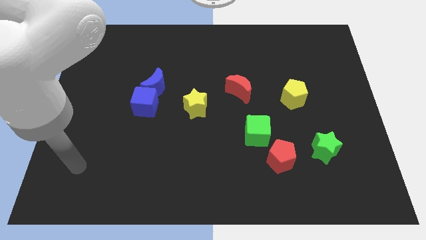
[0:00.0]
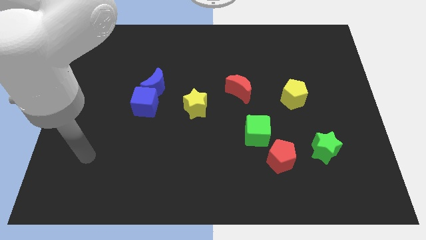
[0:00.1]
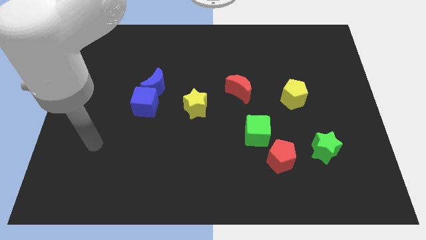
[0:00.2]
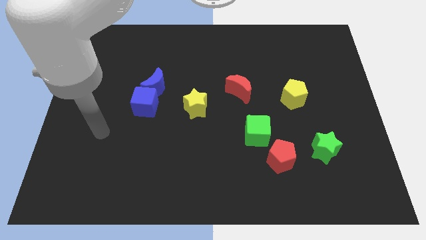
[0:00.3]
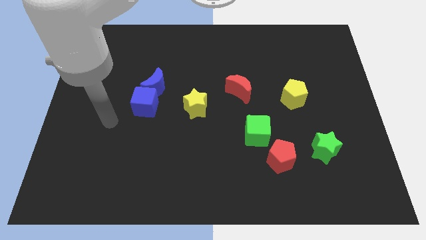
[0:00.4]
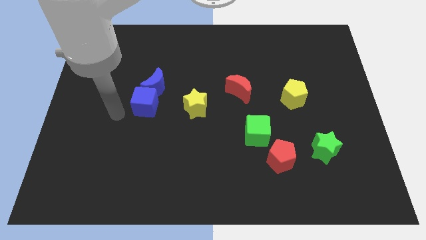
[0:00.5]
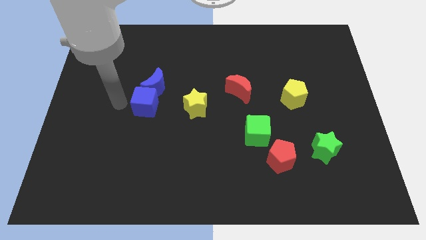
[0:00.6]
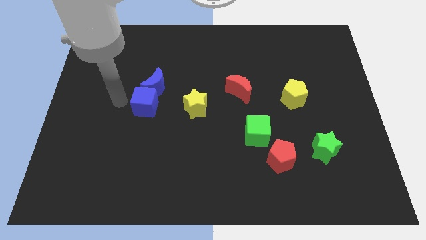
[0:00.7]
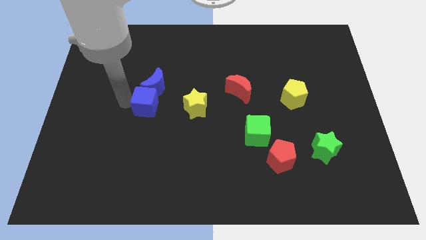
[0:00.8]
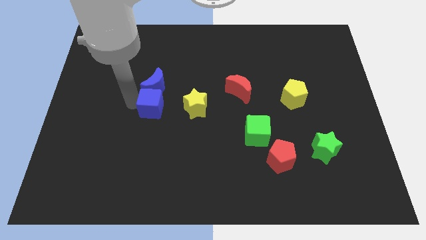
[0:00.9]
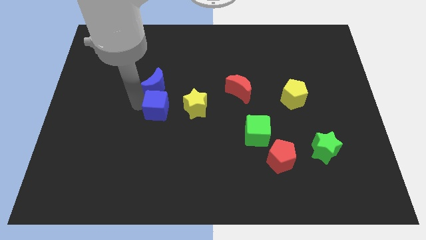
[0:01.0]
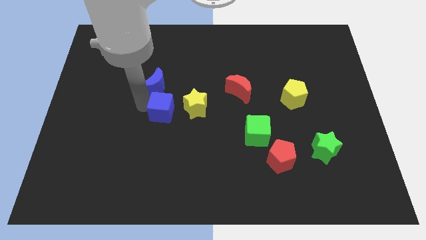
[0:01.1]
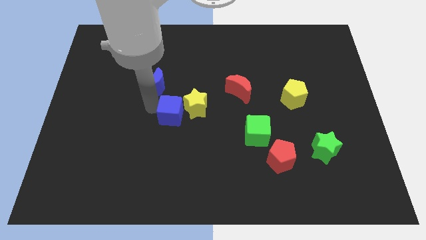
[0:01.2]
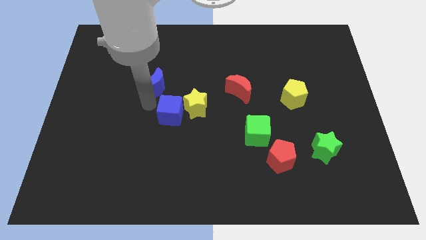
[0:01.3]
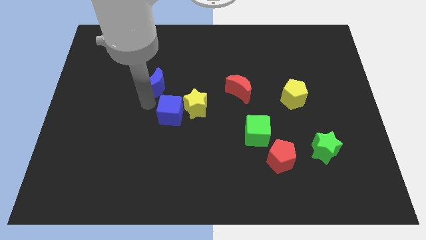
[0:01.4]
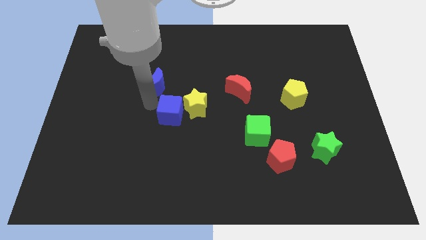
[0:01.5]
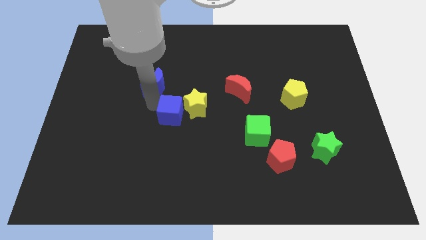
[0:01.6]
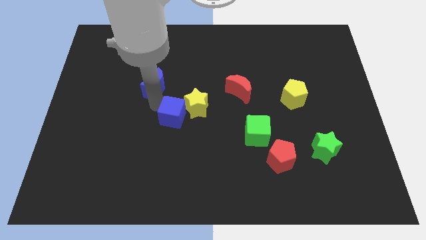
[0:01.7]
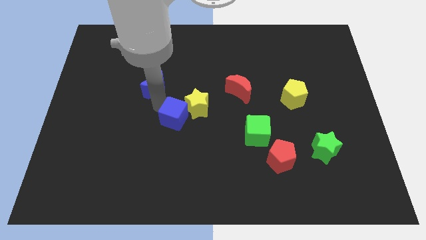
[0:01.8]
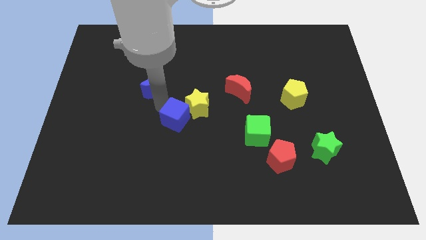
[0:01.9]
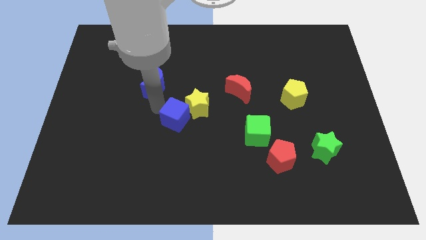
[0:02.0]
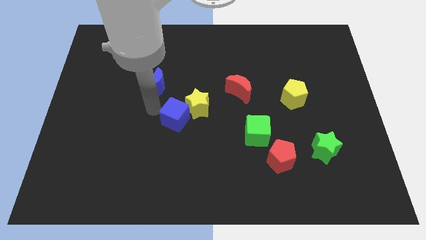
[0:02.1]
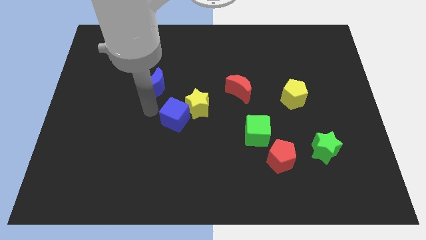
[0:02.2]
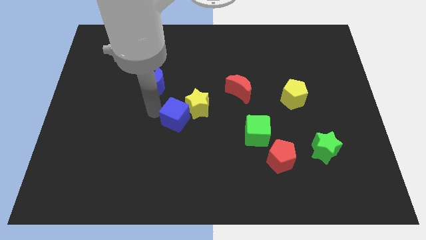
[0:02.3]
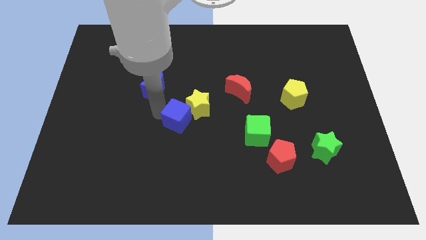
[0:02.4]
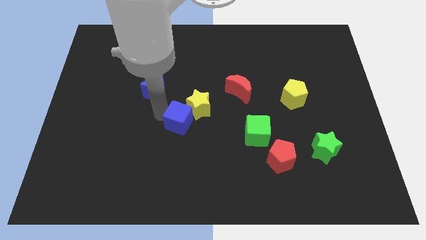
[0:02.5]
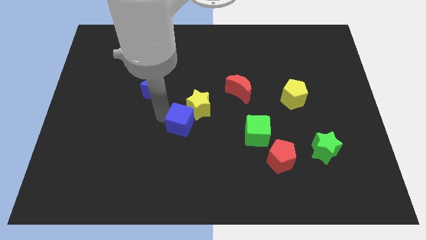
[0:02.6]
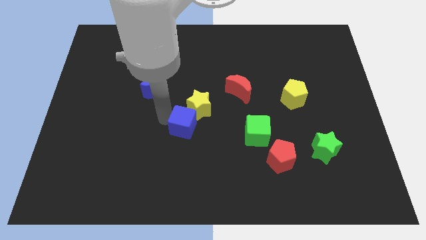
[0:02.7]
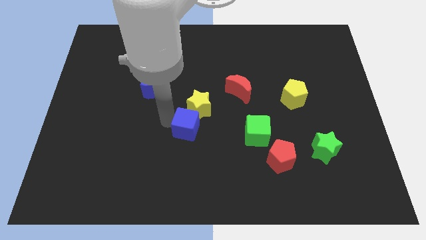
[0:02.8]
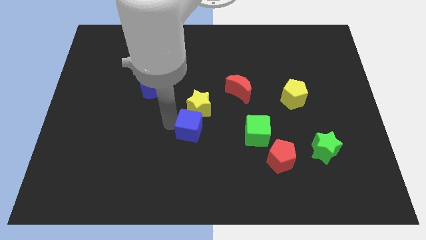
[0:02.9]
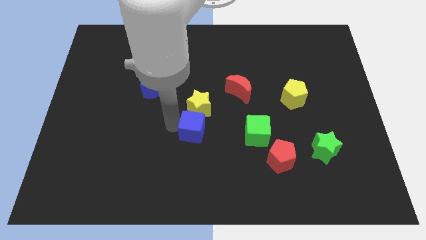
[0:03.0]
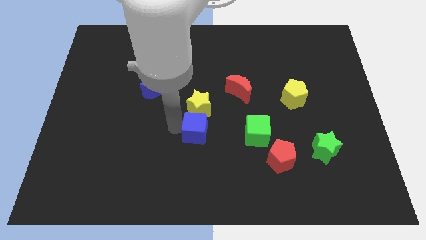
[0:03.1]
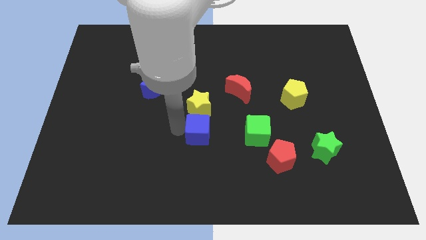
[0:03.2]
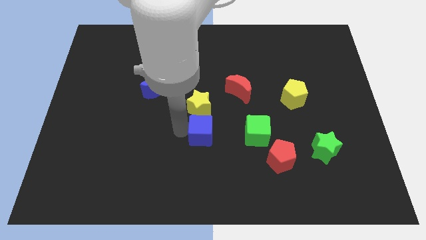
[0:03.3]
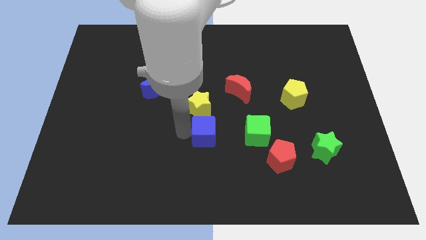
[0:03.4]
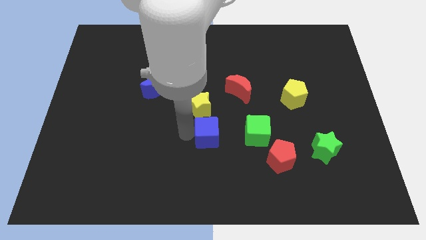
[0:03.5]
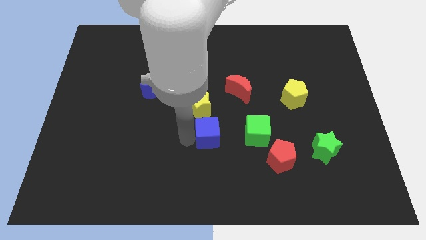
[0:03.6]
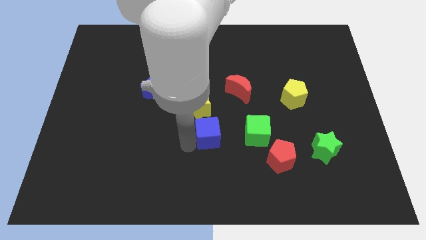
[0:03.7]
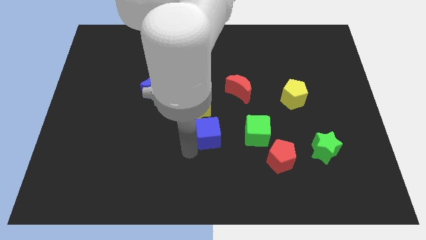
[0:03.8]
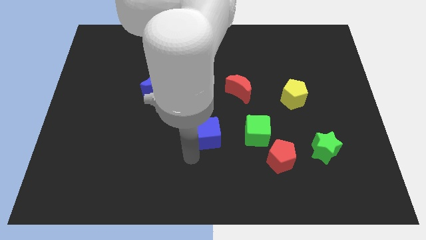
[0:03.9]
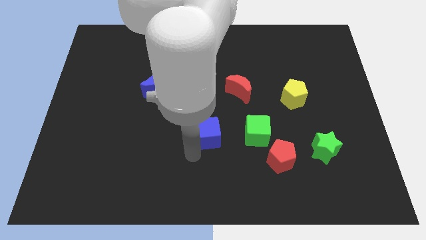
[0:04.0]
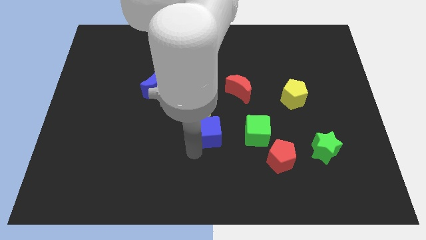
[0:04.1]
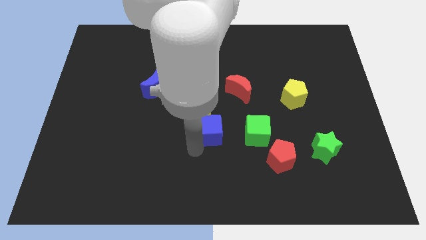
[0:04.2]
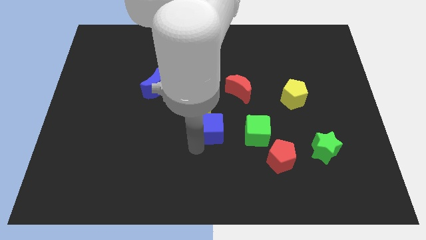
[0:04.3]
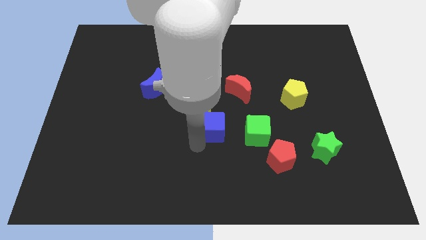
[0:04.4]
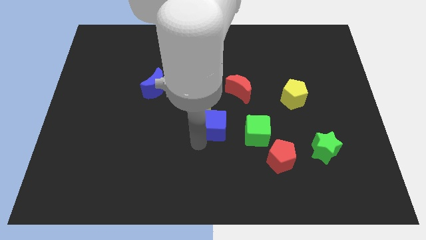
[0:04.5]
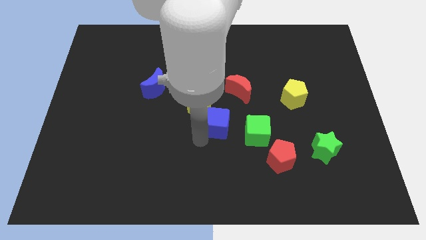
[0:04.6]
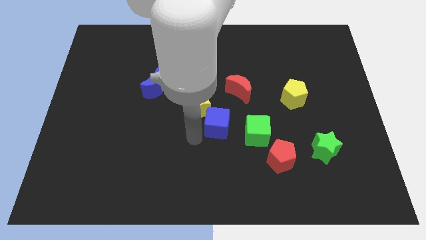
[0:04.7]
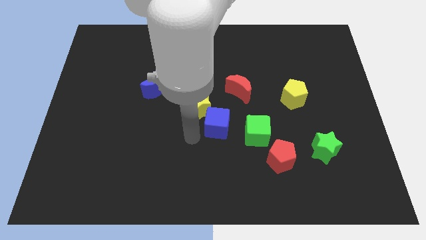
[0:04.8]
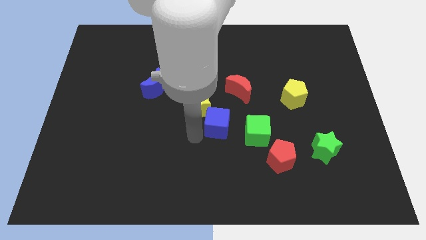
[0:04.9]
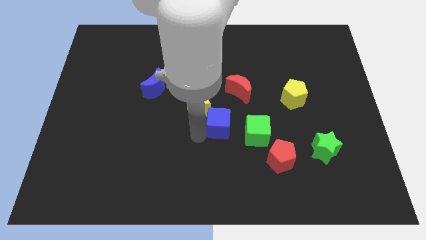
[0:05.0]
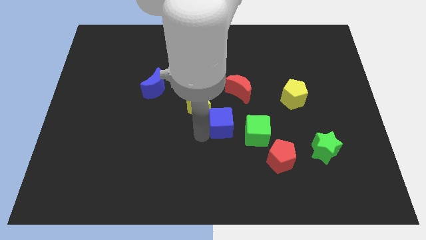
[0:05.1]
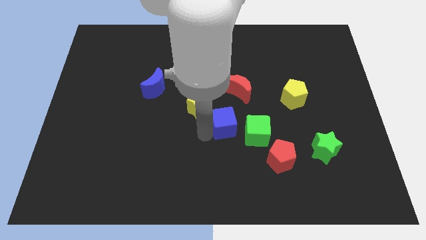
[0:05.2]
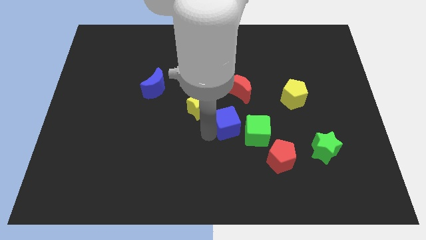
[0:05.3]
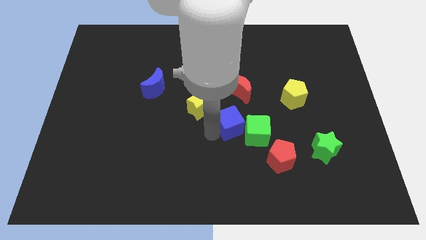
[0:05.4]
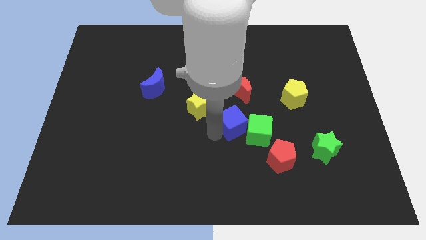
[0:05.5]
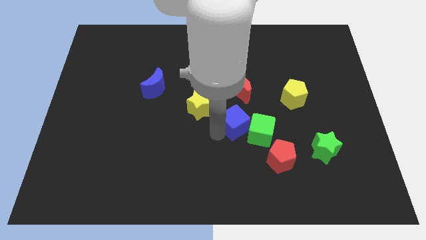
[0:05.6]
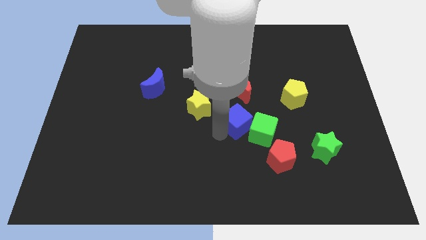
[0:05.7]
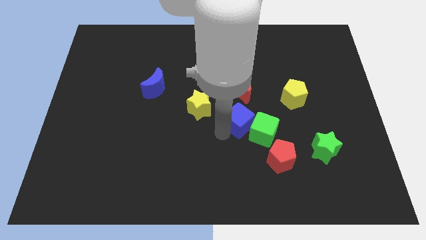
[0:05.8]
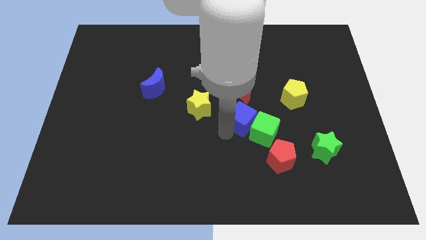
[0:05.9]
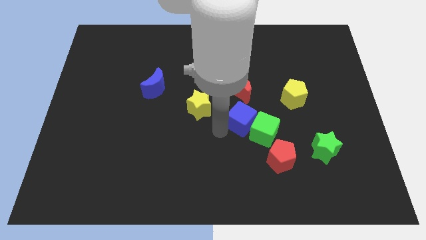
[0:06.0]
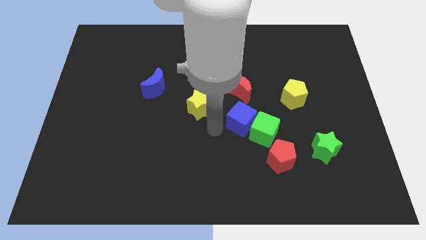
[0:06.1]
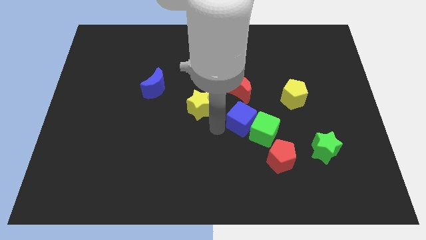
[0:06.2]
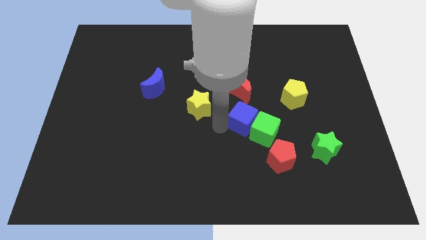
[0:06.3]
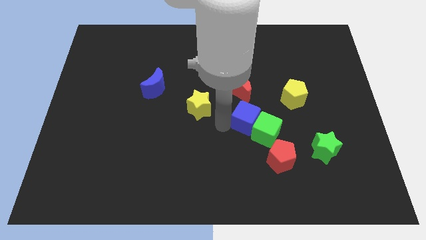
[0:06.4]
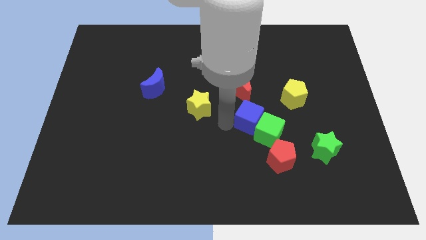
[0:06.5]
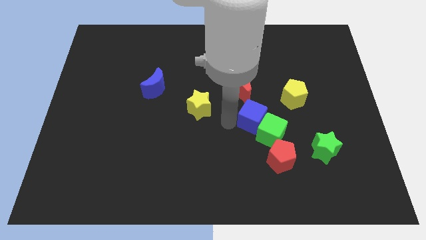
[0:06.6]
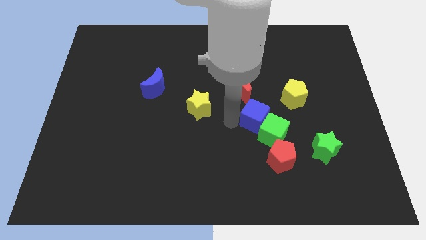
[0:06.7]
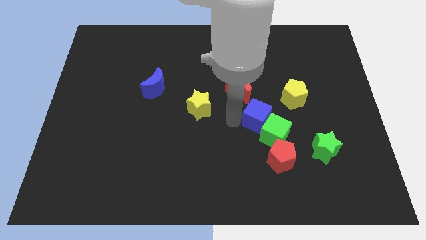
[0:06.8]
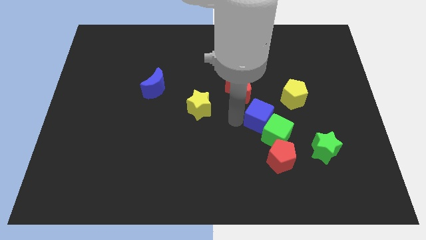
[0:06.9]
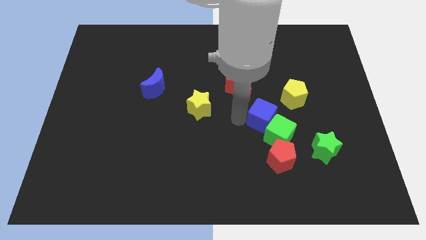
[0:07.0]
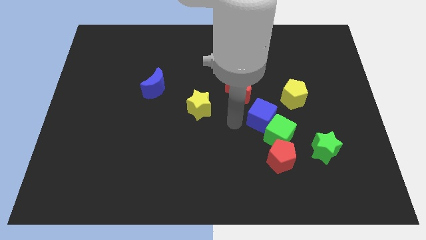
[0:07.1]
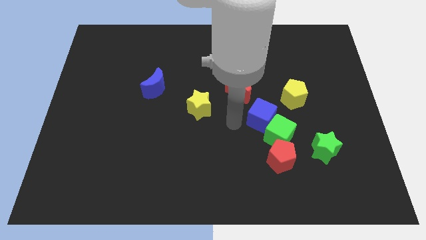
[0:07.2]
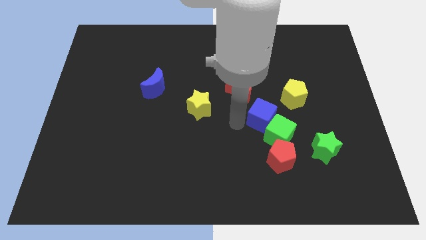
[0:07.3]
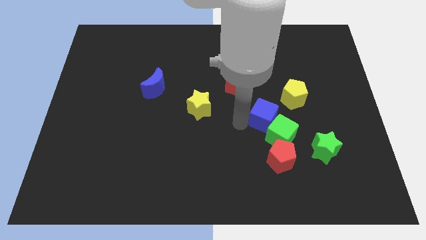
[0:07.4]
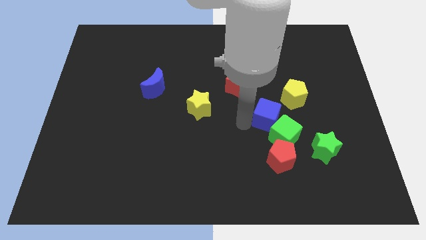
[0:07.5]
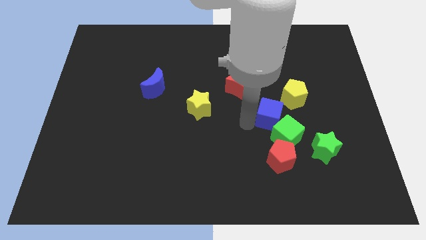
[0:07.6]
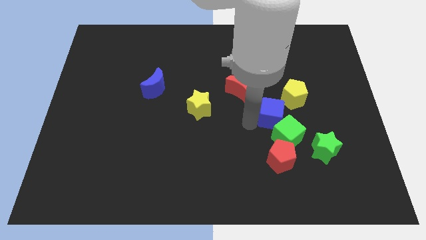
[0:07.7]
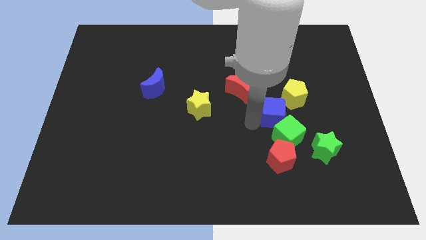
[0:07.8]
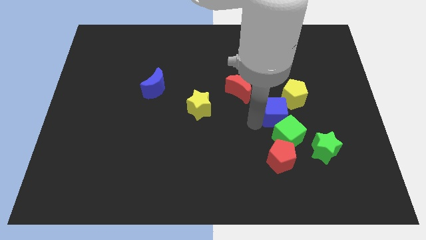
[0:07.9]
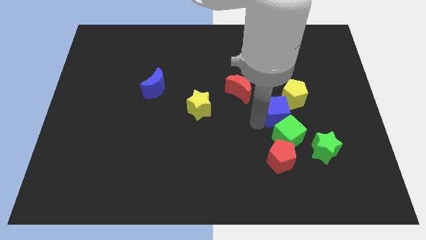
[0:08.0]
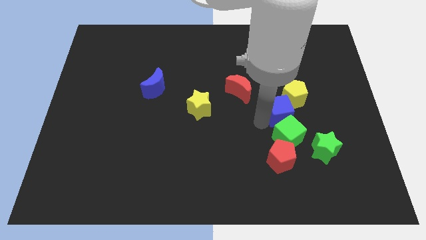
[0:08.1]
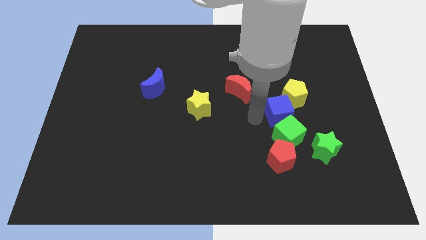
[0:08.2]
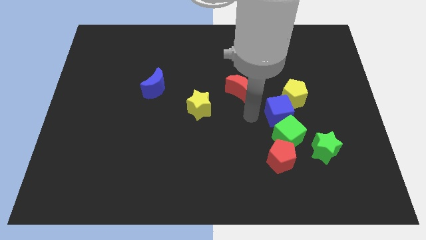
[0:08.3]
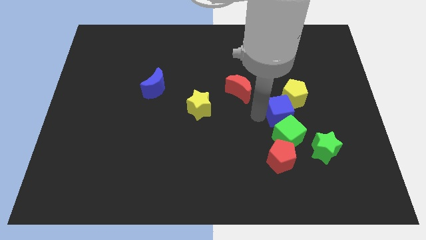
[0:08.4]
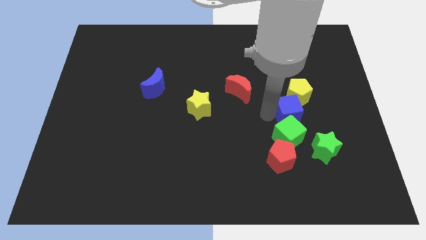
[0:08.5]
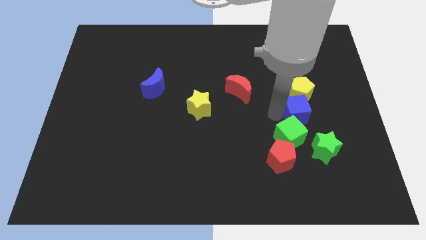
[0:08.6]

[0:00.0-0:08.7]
push the blue cube to the top side of the green star
